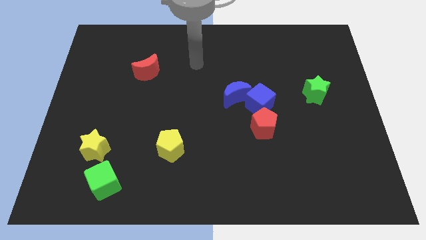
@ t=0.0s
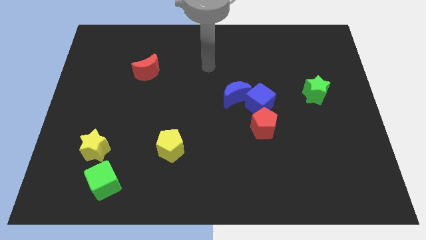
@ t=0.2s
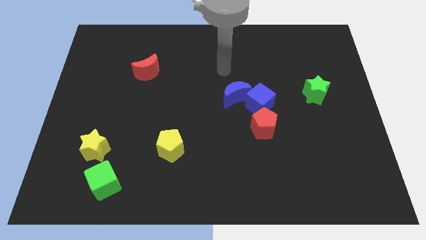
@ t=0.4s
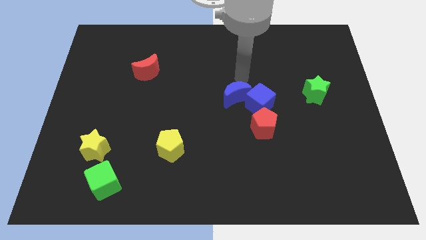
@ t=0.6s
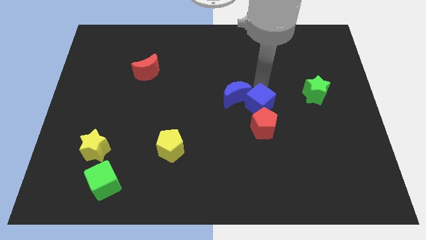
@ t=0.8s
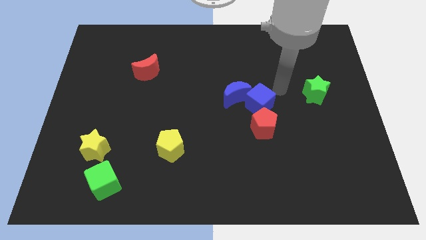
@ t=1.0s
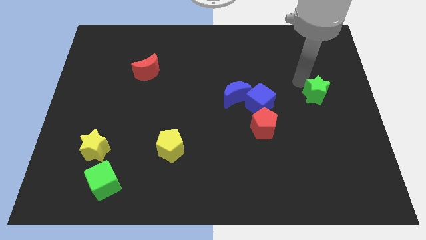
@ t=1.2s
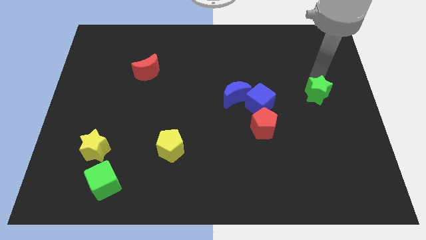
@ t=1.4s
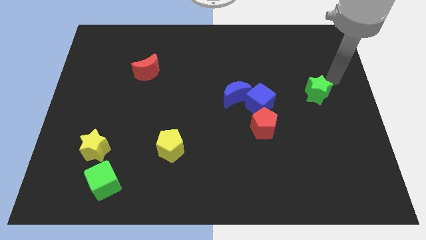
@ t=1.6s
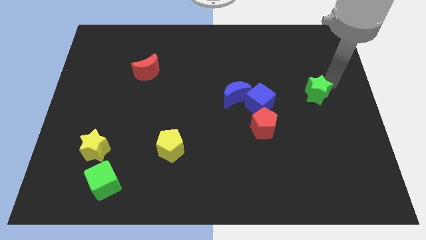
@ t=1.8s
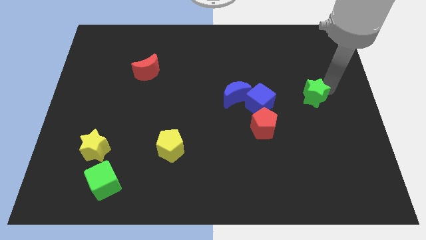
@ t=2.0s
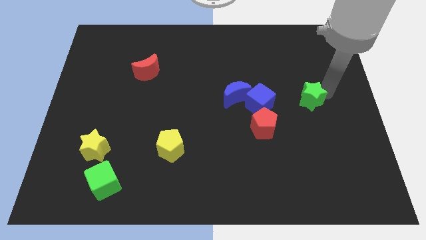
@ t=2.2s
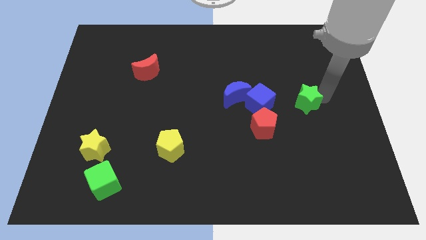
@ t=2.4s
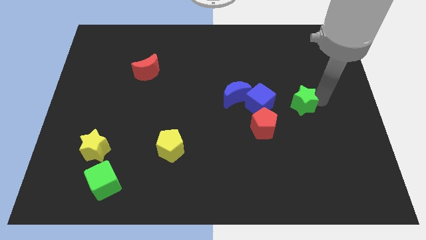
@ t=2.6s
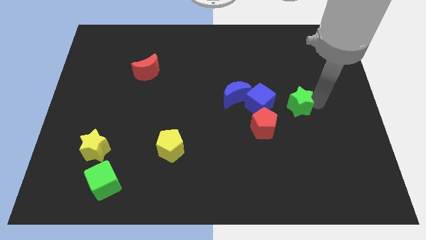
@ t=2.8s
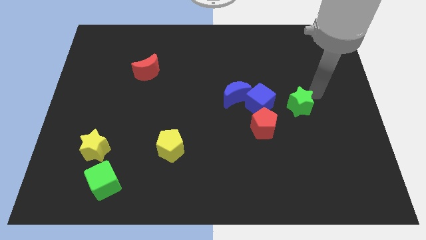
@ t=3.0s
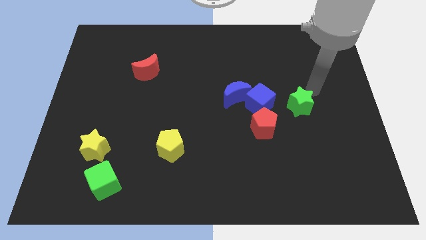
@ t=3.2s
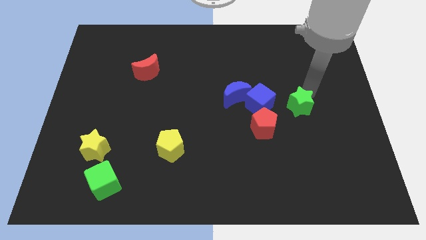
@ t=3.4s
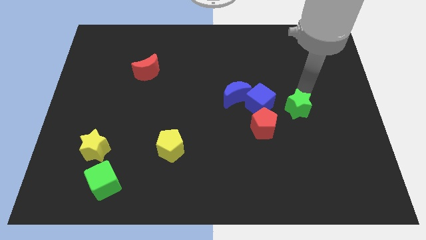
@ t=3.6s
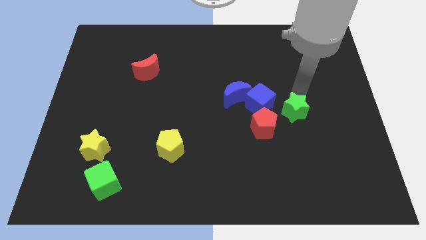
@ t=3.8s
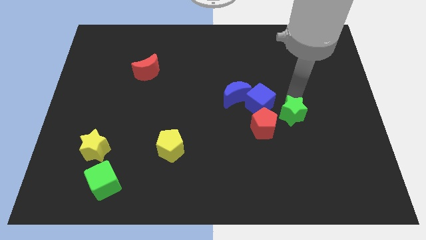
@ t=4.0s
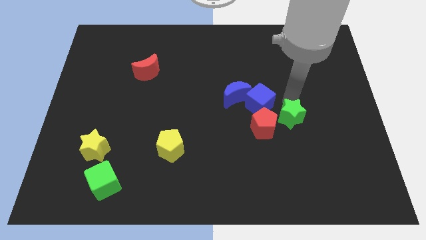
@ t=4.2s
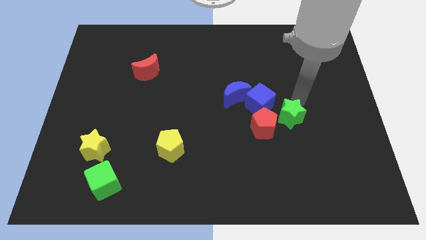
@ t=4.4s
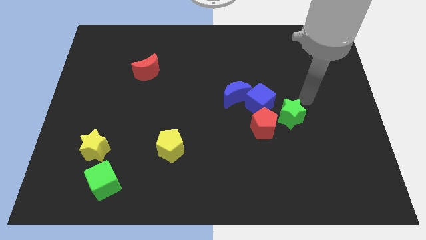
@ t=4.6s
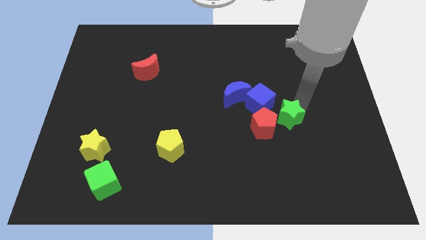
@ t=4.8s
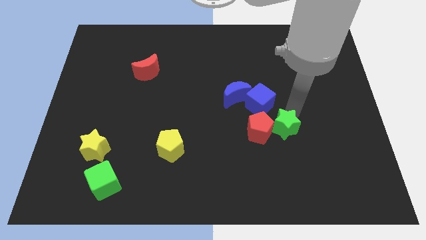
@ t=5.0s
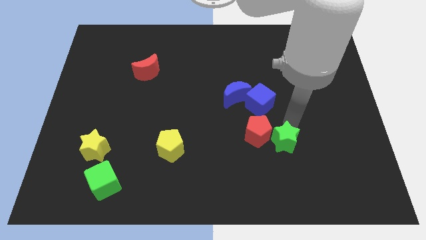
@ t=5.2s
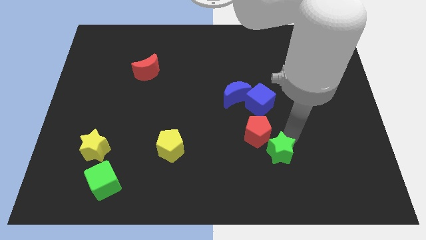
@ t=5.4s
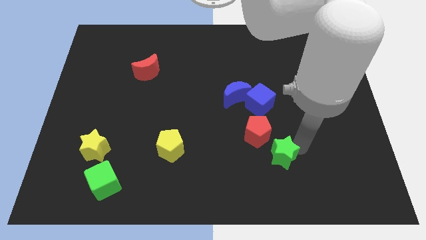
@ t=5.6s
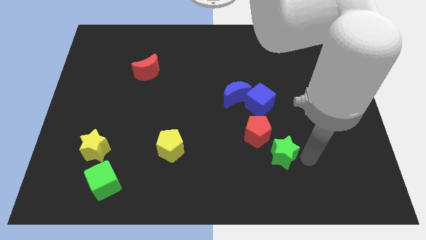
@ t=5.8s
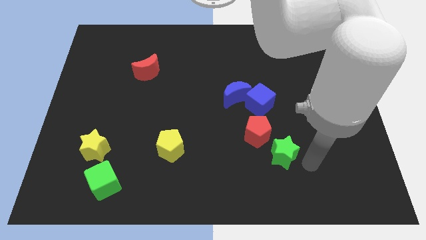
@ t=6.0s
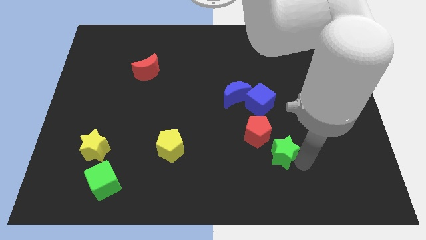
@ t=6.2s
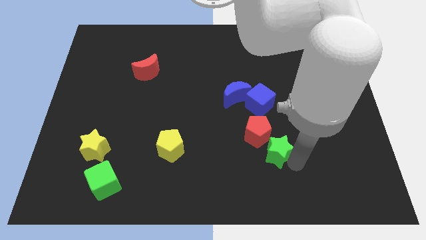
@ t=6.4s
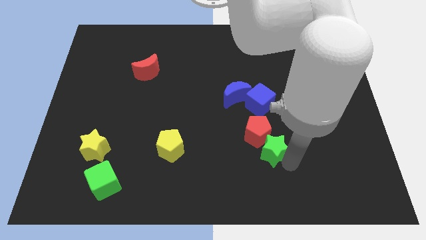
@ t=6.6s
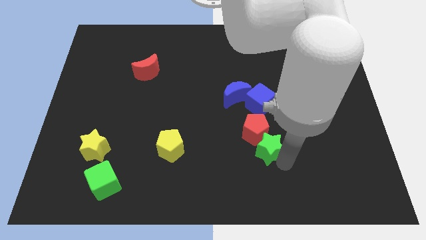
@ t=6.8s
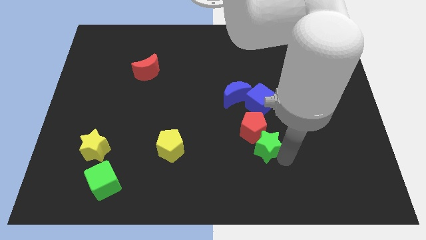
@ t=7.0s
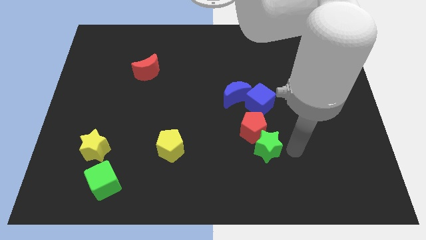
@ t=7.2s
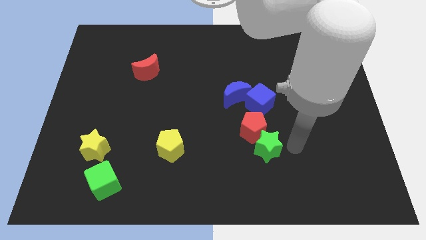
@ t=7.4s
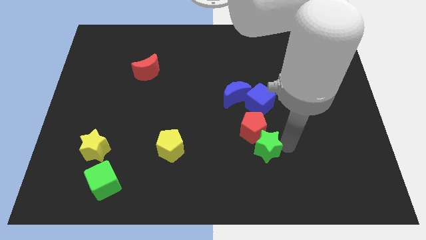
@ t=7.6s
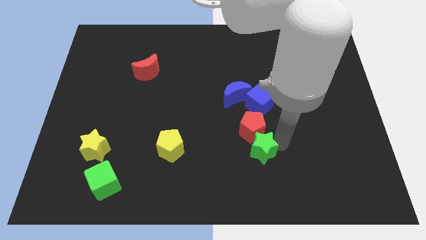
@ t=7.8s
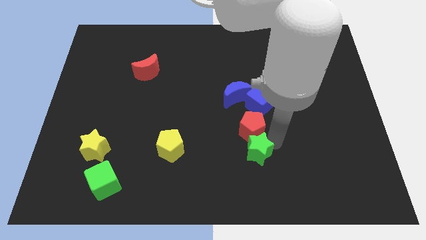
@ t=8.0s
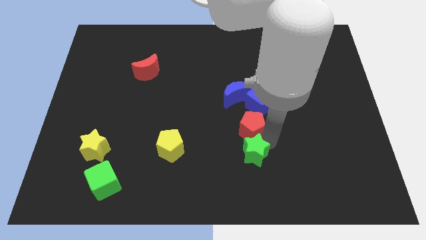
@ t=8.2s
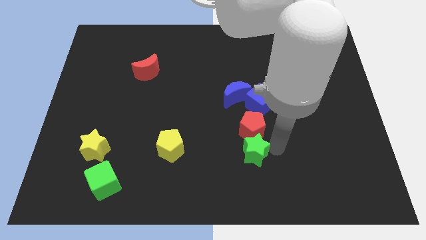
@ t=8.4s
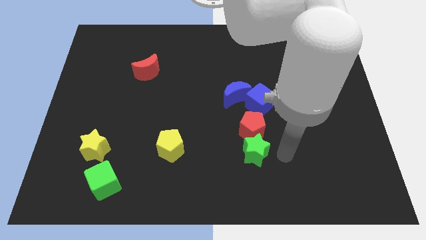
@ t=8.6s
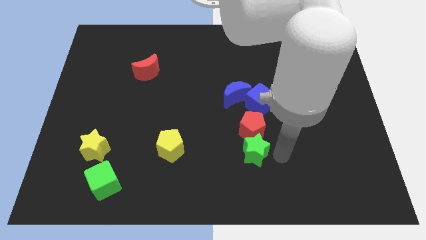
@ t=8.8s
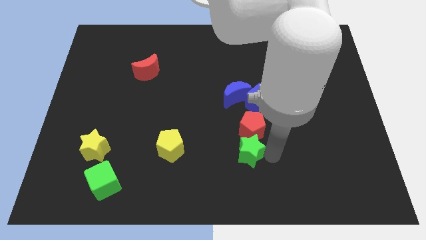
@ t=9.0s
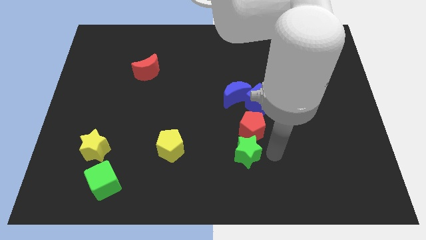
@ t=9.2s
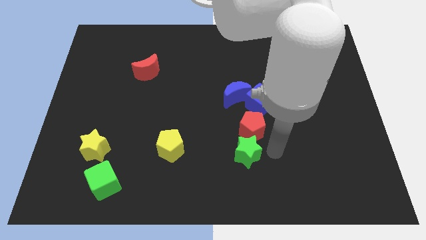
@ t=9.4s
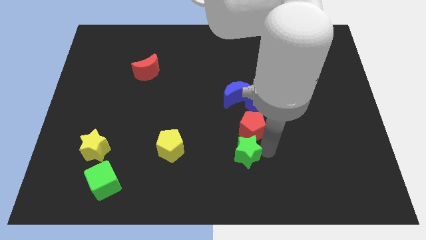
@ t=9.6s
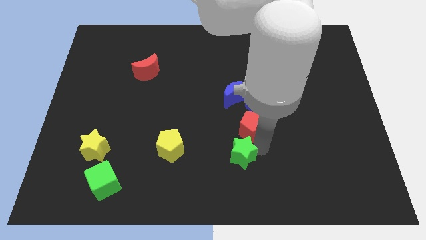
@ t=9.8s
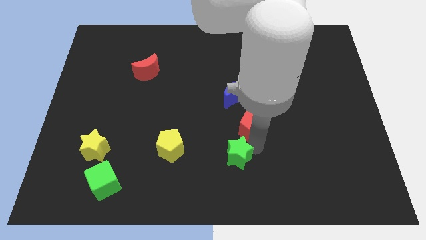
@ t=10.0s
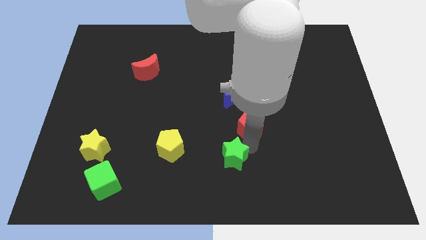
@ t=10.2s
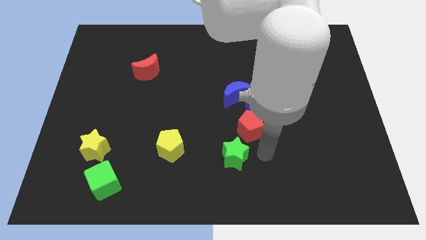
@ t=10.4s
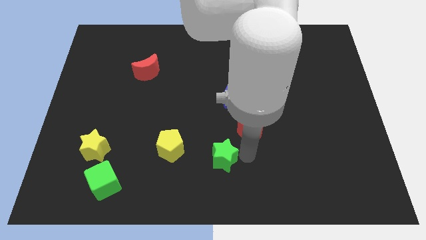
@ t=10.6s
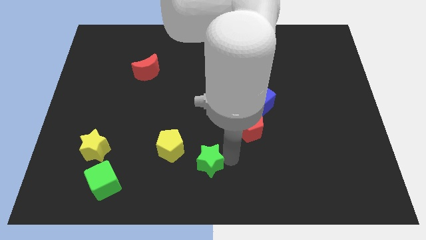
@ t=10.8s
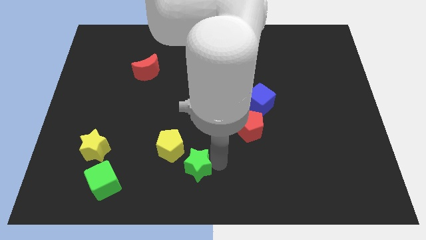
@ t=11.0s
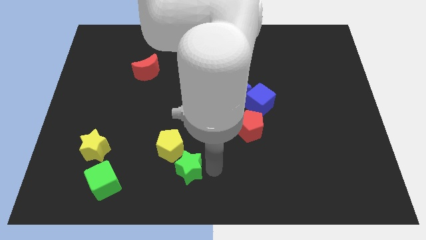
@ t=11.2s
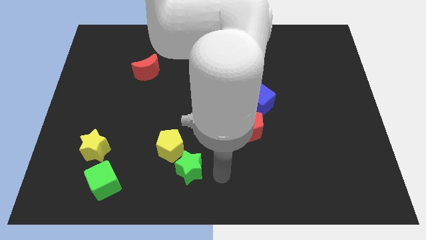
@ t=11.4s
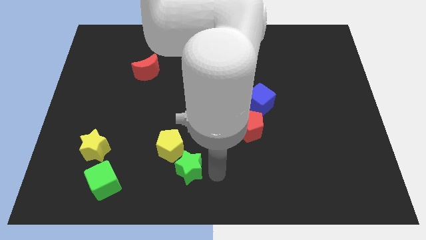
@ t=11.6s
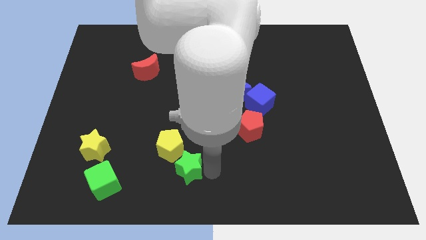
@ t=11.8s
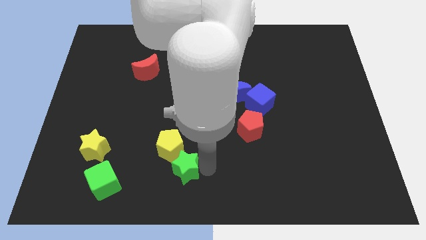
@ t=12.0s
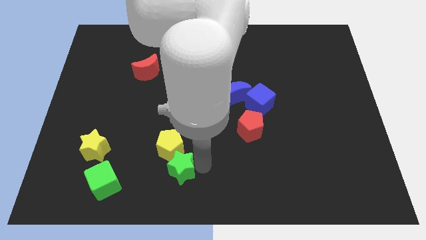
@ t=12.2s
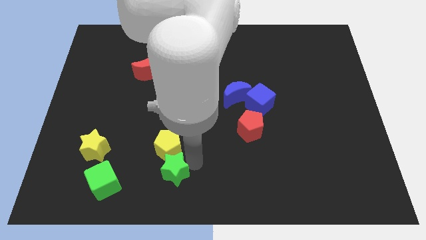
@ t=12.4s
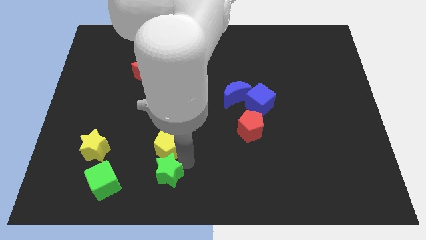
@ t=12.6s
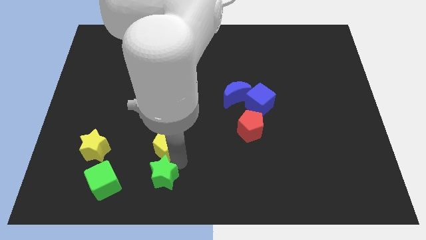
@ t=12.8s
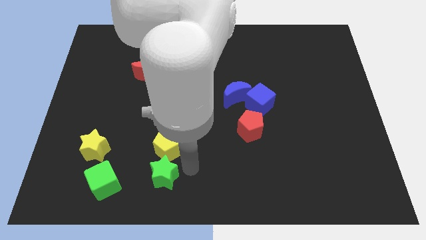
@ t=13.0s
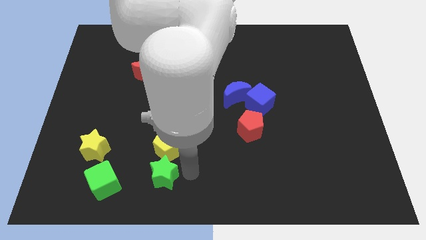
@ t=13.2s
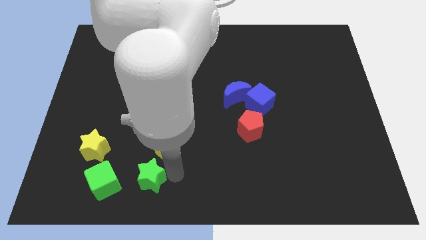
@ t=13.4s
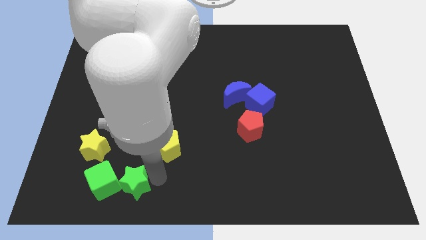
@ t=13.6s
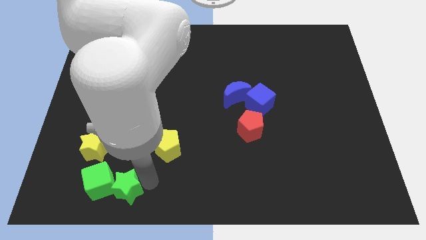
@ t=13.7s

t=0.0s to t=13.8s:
put the green star close to the green cube

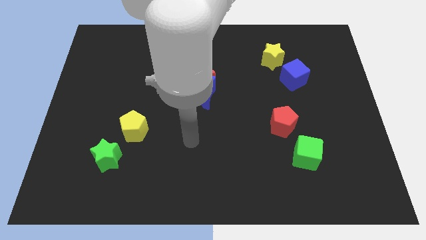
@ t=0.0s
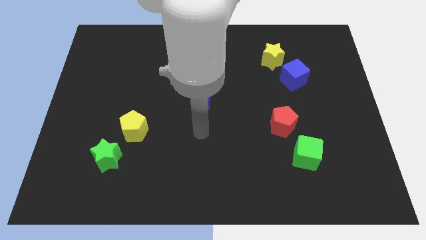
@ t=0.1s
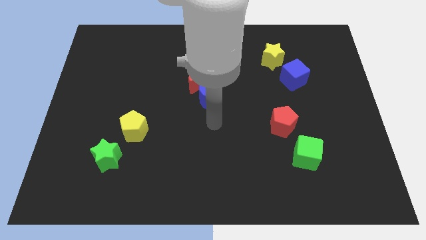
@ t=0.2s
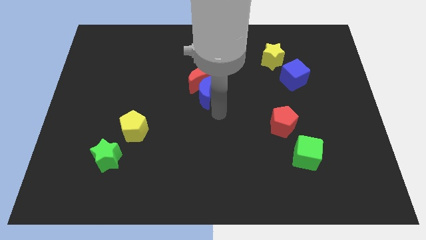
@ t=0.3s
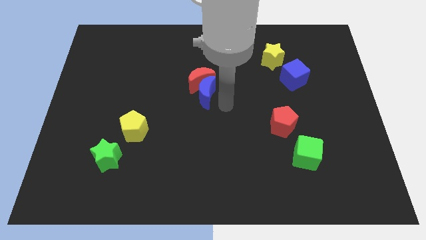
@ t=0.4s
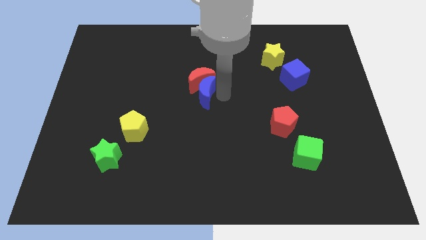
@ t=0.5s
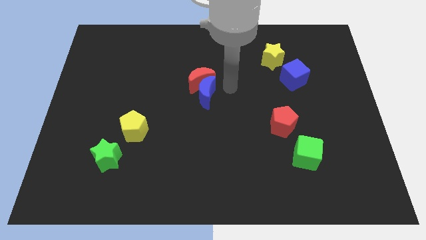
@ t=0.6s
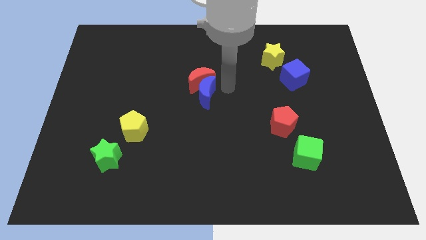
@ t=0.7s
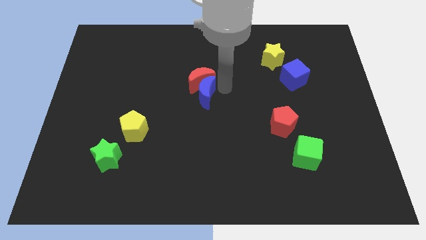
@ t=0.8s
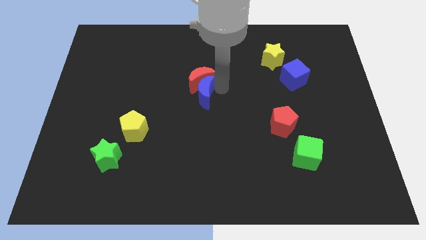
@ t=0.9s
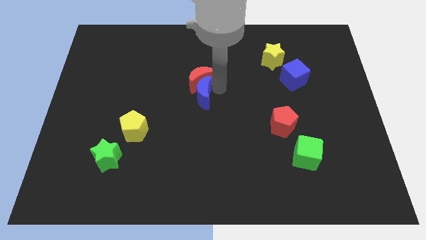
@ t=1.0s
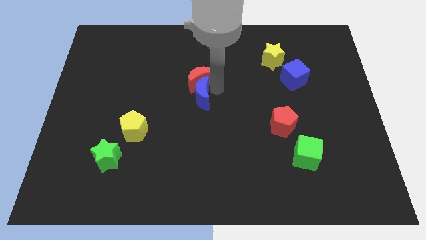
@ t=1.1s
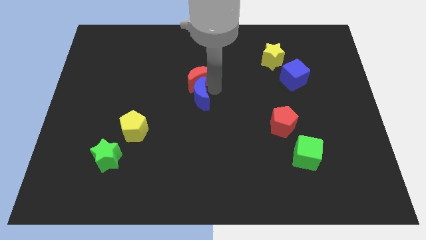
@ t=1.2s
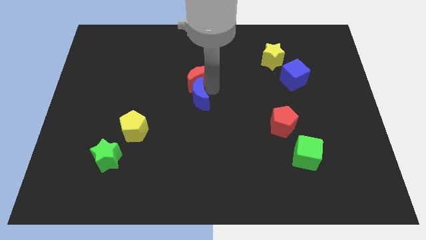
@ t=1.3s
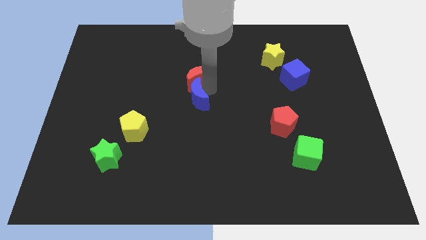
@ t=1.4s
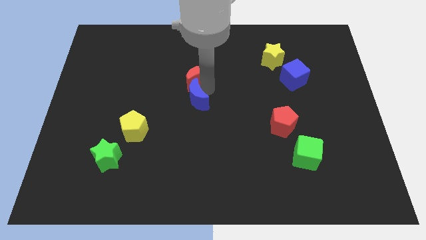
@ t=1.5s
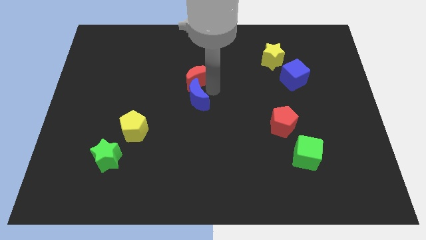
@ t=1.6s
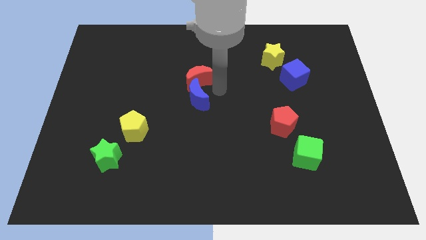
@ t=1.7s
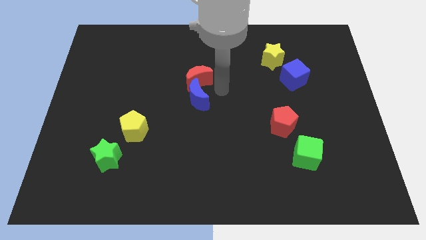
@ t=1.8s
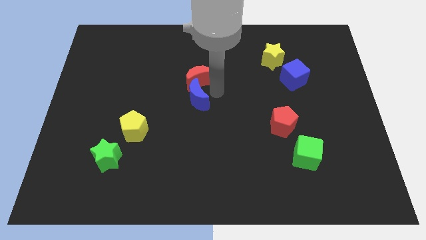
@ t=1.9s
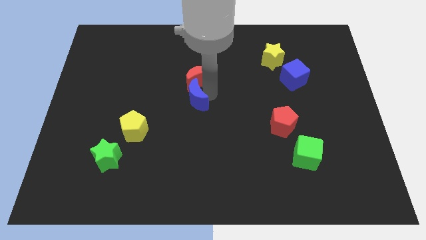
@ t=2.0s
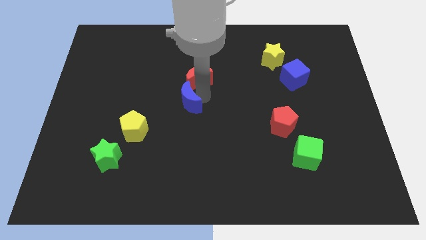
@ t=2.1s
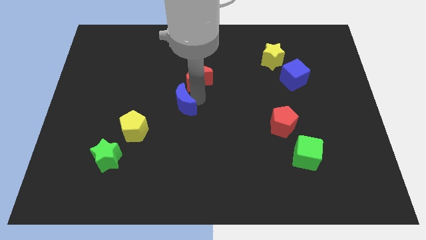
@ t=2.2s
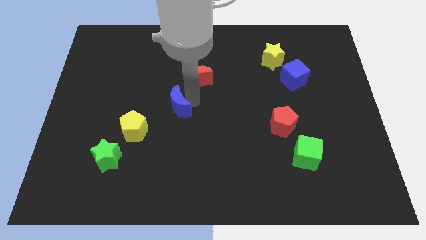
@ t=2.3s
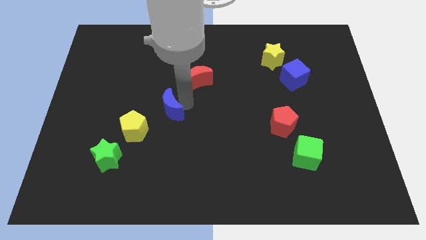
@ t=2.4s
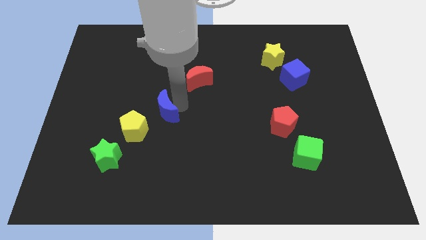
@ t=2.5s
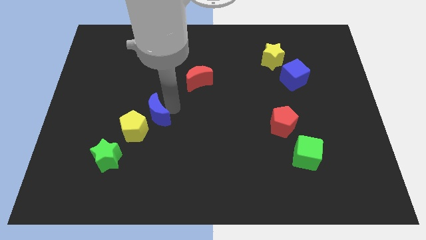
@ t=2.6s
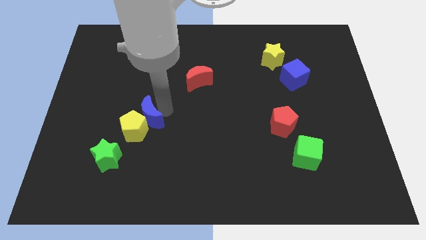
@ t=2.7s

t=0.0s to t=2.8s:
put the blue moon towards the yellow pentagon
